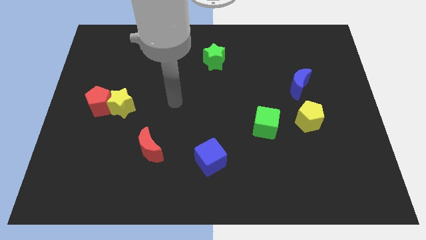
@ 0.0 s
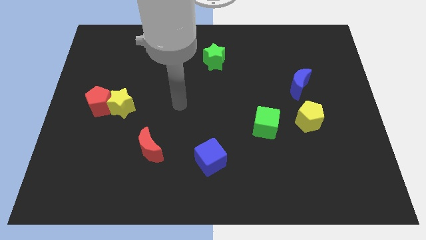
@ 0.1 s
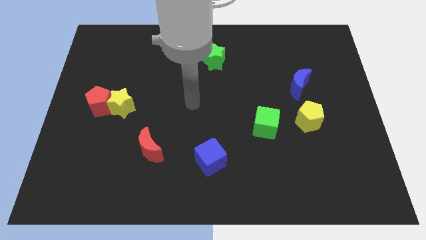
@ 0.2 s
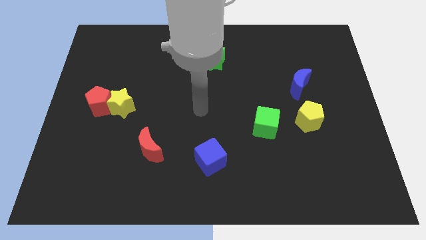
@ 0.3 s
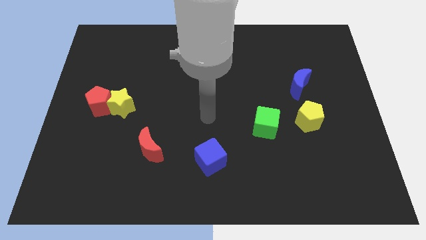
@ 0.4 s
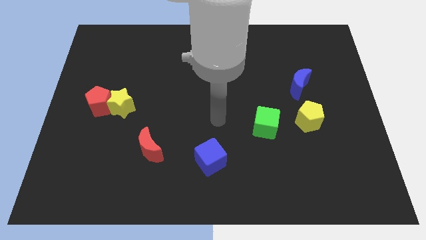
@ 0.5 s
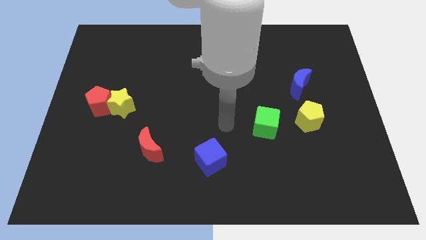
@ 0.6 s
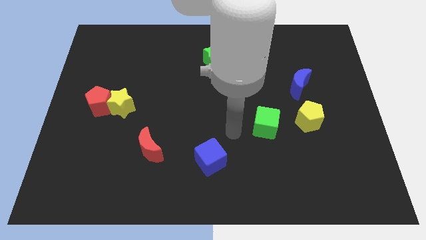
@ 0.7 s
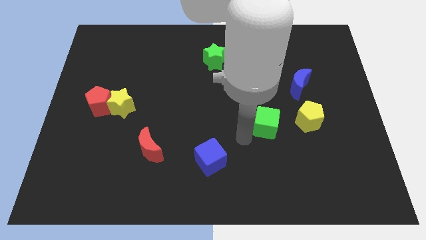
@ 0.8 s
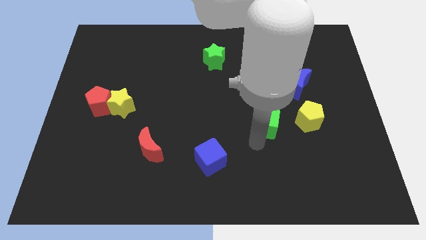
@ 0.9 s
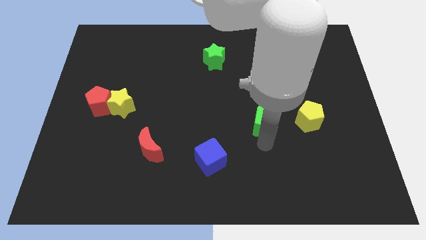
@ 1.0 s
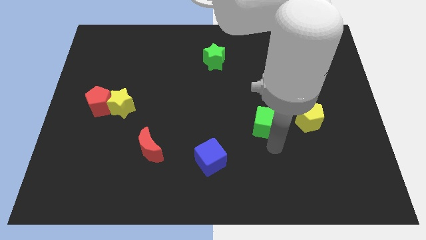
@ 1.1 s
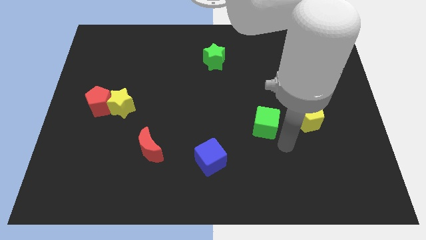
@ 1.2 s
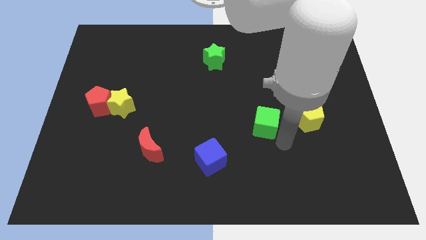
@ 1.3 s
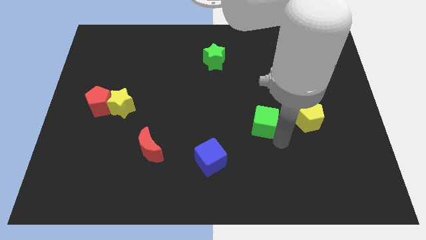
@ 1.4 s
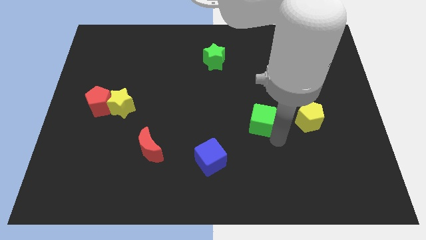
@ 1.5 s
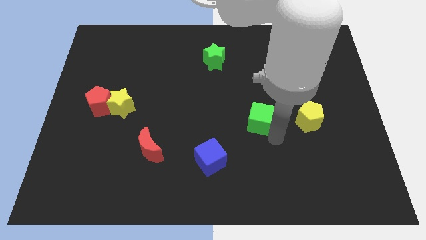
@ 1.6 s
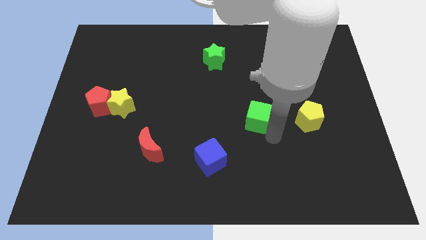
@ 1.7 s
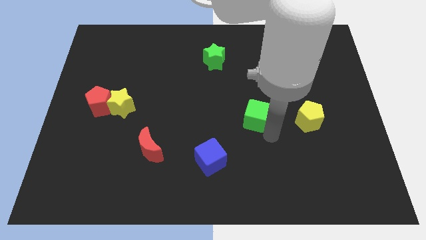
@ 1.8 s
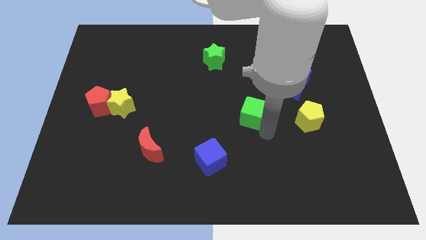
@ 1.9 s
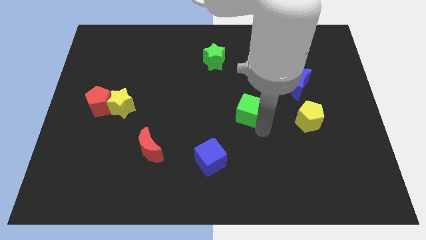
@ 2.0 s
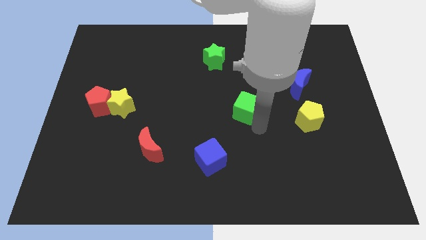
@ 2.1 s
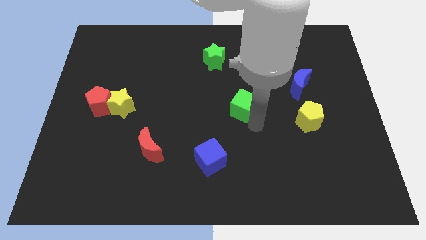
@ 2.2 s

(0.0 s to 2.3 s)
slide the green cube a little bit upwards and then left

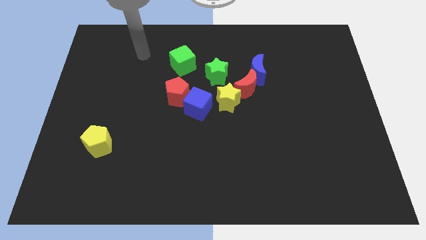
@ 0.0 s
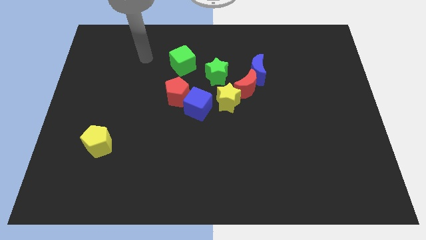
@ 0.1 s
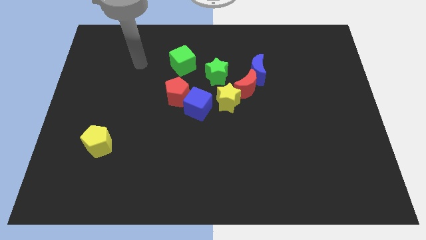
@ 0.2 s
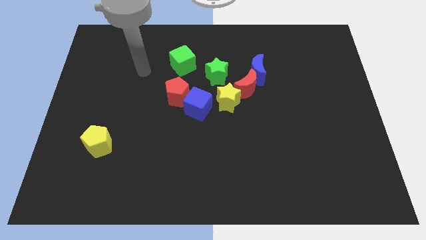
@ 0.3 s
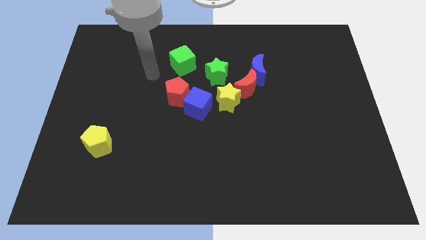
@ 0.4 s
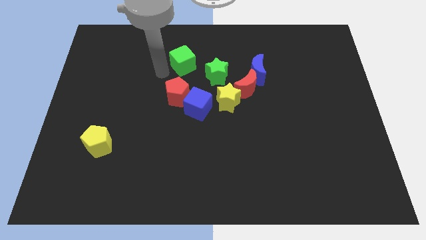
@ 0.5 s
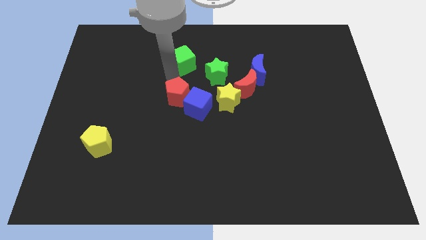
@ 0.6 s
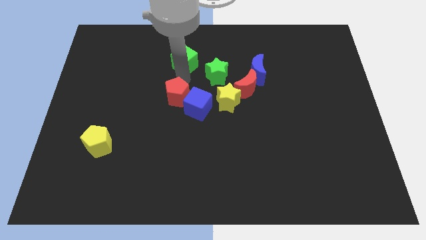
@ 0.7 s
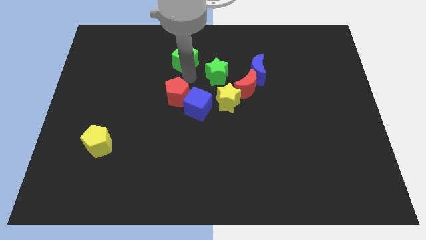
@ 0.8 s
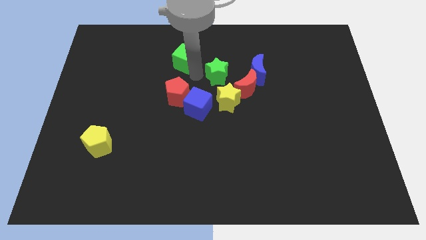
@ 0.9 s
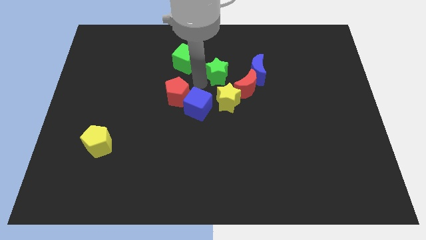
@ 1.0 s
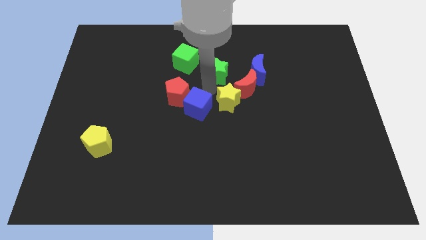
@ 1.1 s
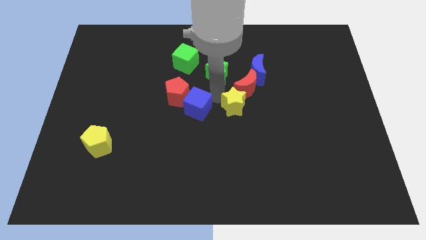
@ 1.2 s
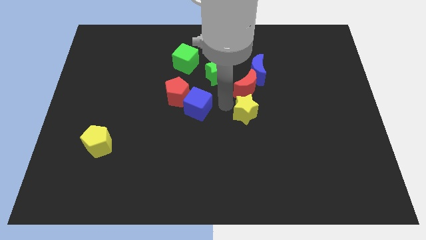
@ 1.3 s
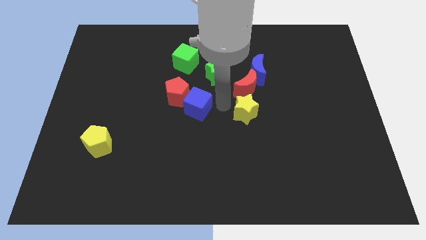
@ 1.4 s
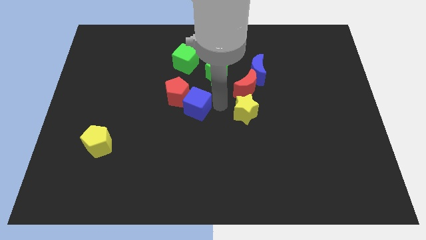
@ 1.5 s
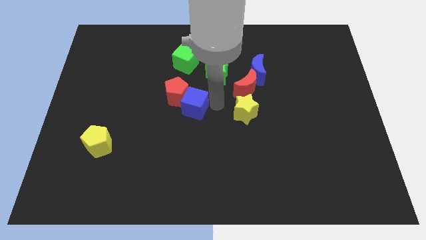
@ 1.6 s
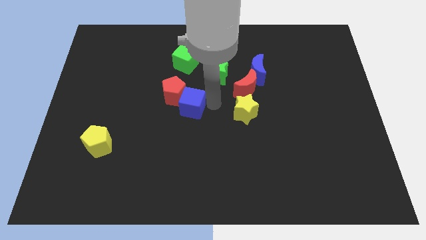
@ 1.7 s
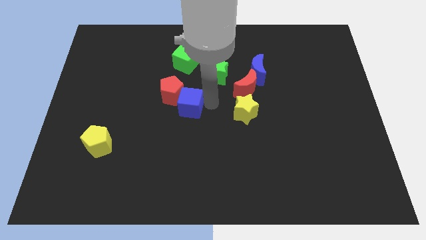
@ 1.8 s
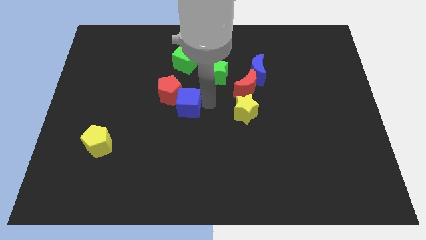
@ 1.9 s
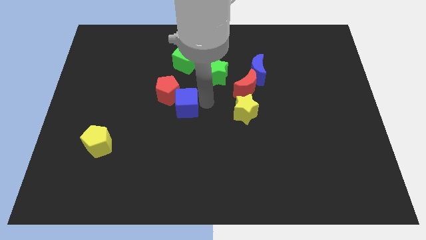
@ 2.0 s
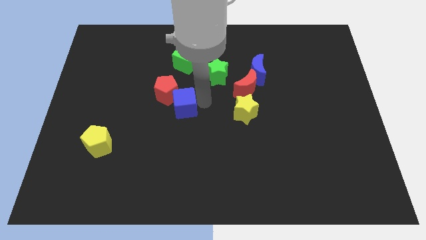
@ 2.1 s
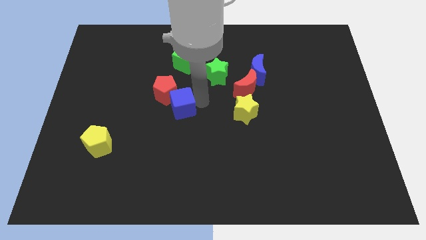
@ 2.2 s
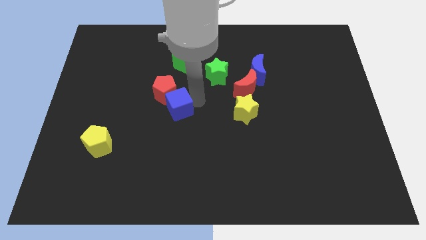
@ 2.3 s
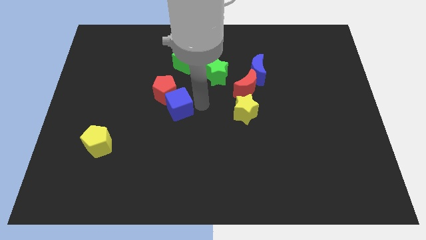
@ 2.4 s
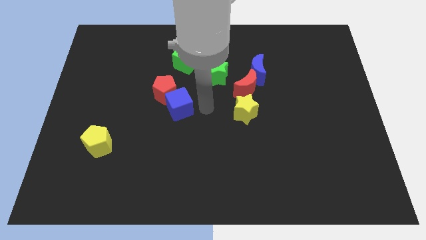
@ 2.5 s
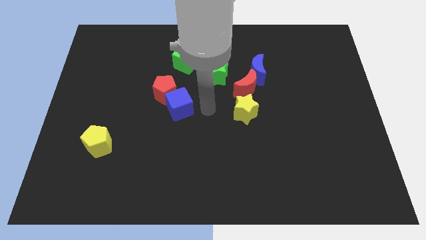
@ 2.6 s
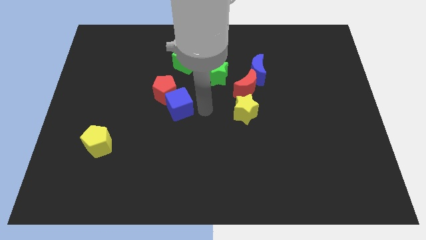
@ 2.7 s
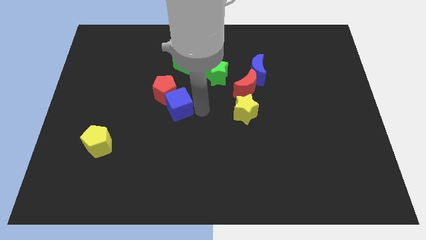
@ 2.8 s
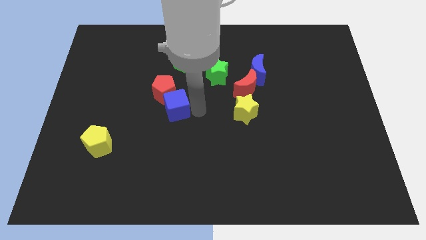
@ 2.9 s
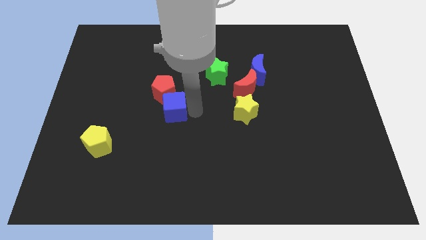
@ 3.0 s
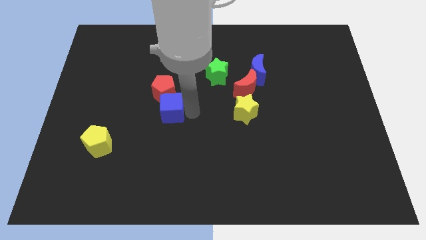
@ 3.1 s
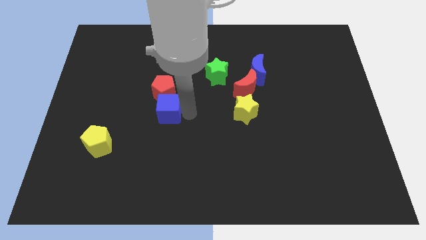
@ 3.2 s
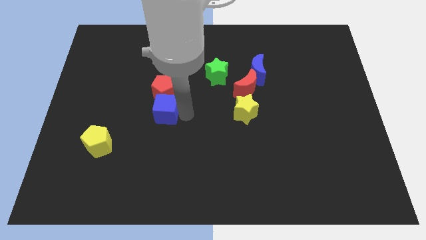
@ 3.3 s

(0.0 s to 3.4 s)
push the blue cube a bit left

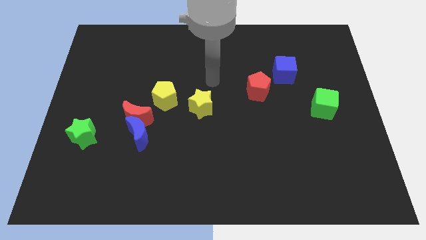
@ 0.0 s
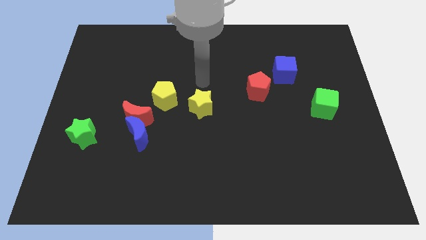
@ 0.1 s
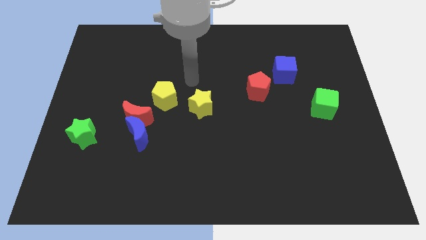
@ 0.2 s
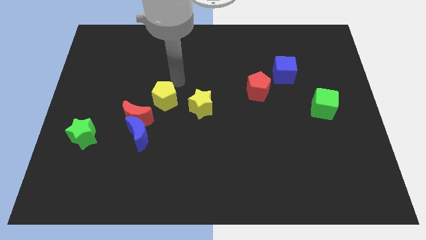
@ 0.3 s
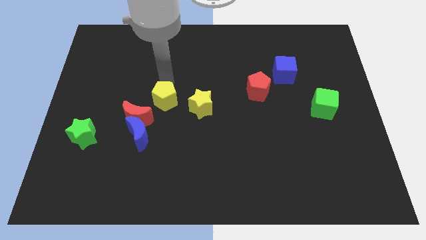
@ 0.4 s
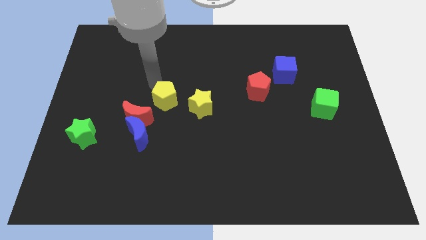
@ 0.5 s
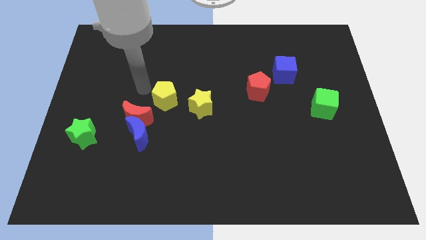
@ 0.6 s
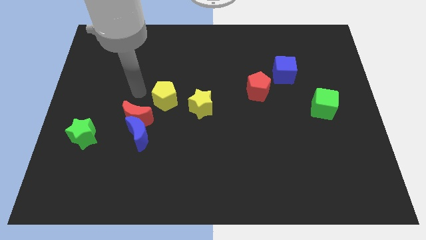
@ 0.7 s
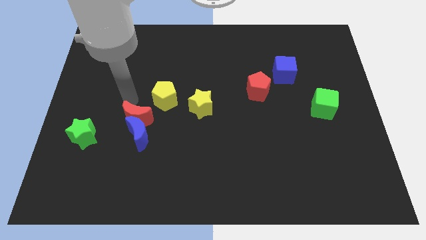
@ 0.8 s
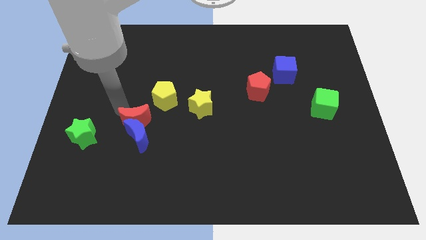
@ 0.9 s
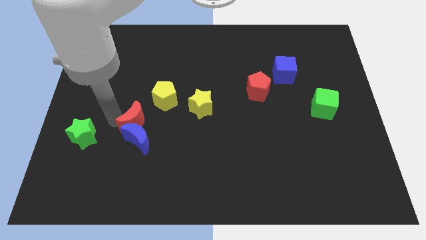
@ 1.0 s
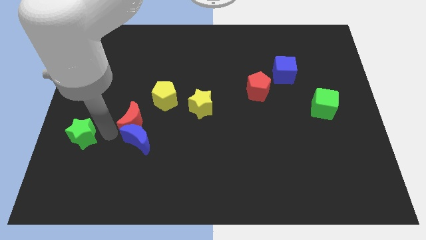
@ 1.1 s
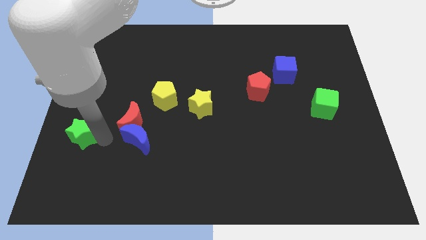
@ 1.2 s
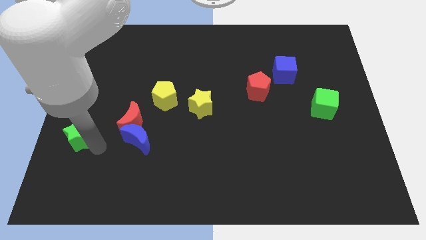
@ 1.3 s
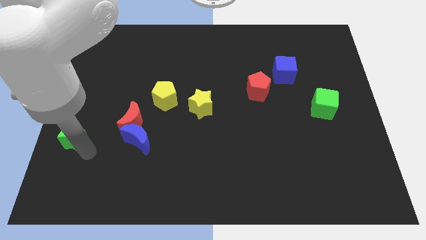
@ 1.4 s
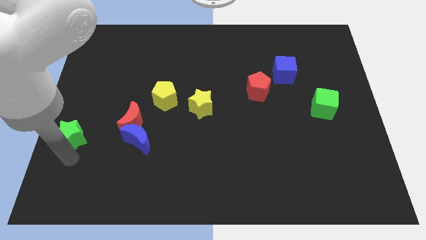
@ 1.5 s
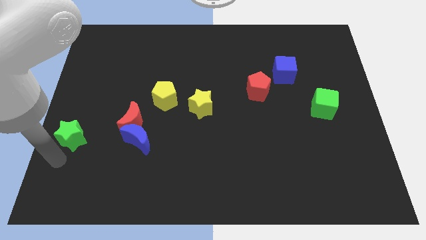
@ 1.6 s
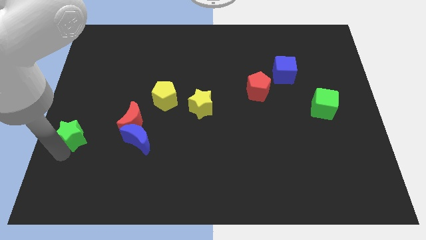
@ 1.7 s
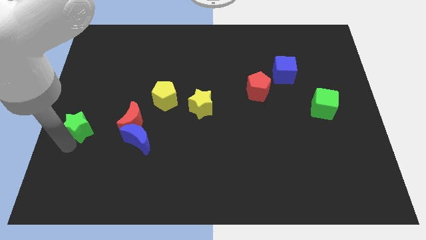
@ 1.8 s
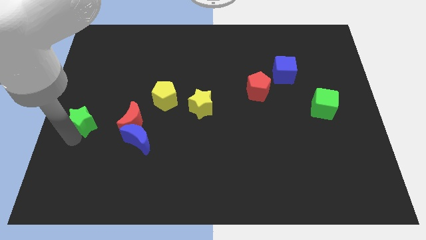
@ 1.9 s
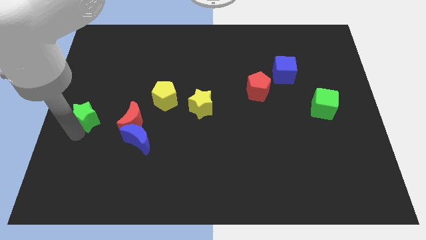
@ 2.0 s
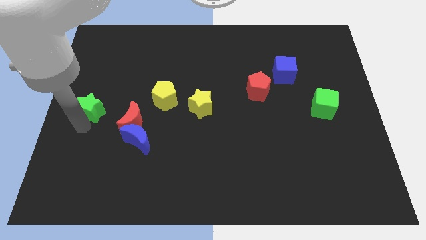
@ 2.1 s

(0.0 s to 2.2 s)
push the green star slightly up
